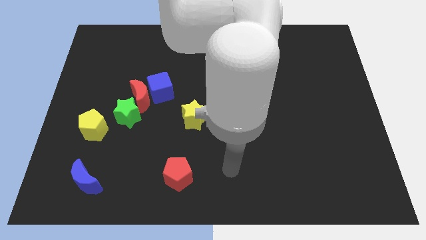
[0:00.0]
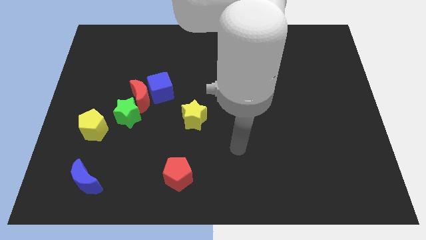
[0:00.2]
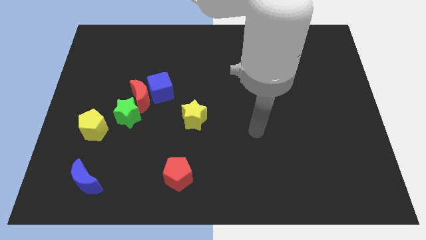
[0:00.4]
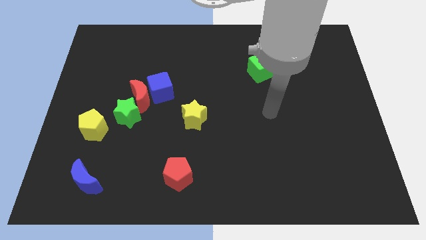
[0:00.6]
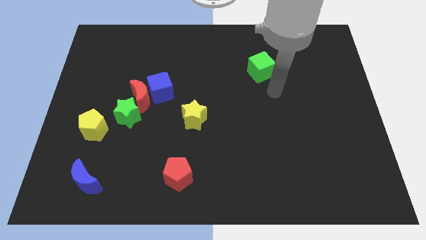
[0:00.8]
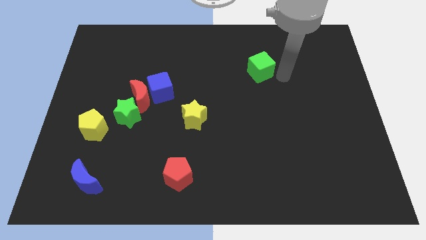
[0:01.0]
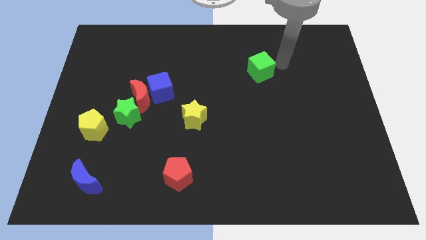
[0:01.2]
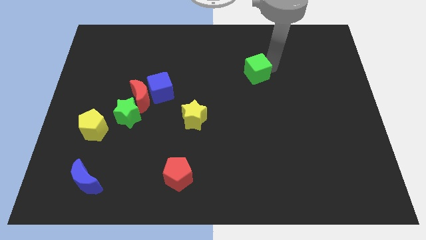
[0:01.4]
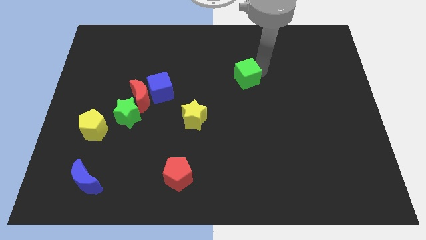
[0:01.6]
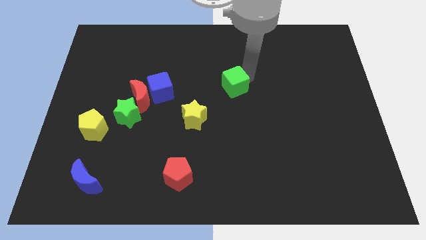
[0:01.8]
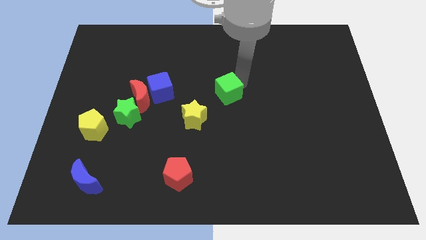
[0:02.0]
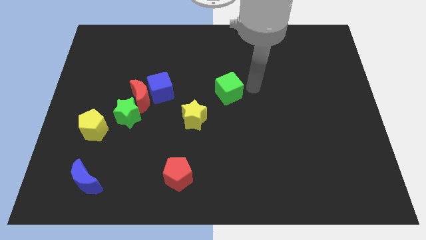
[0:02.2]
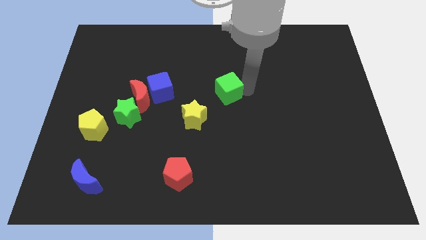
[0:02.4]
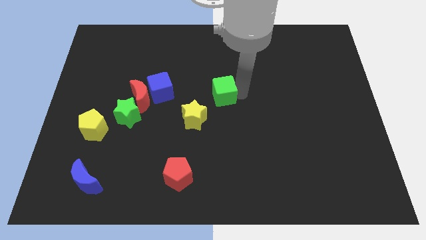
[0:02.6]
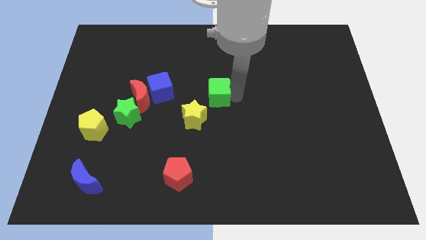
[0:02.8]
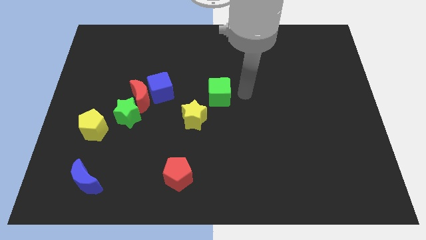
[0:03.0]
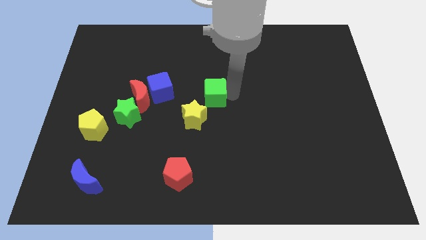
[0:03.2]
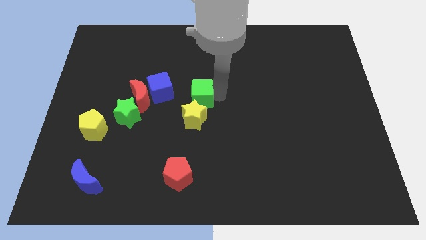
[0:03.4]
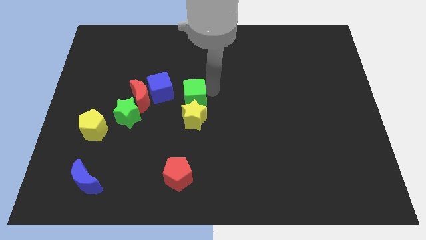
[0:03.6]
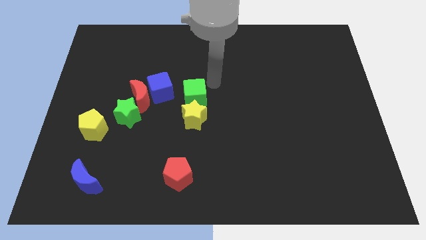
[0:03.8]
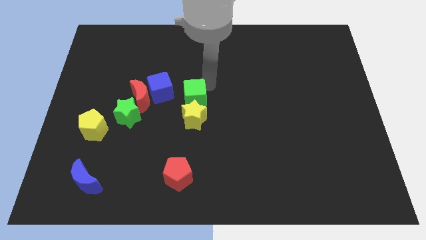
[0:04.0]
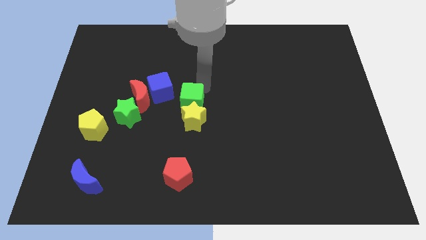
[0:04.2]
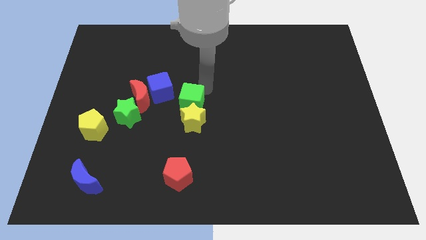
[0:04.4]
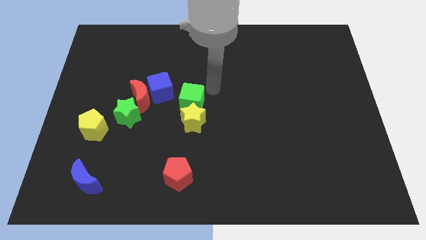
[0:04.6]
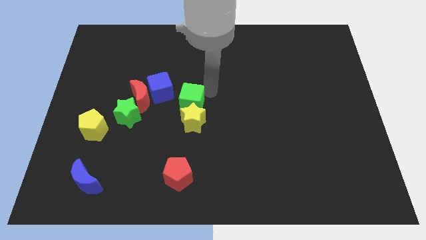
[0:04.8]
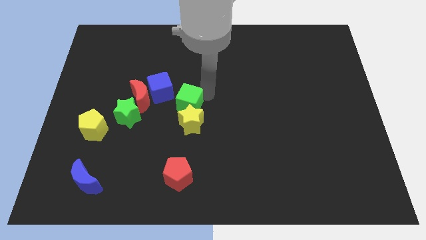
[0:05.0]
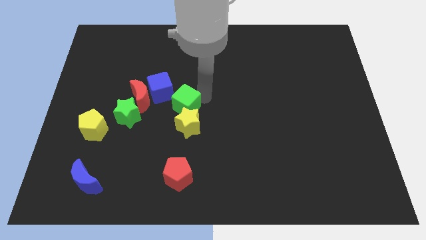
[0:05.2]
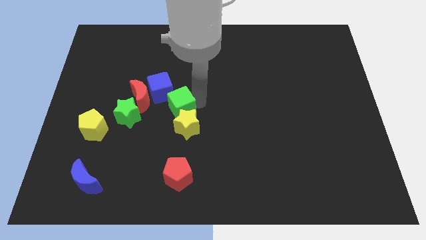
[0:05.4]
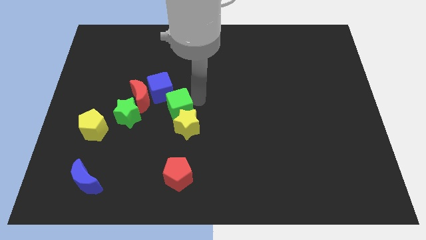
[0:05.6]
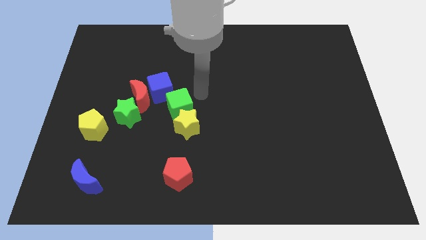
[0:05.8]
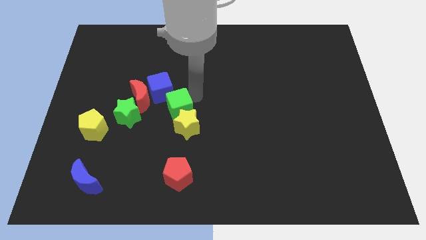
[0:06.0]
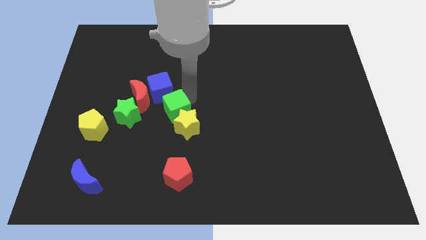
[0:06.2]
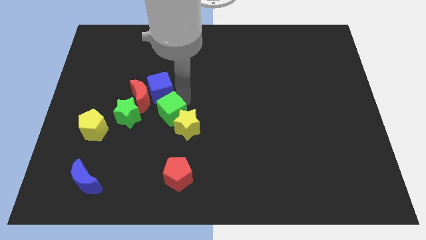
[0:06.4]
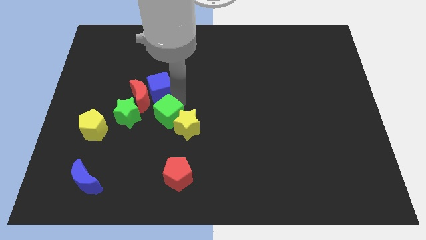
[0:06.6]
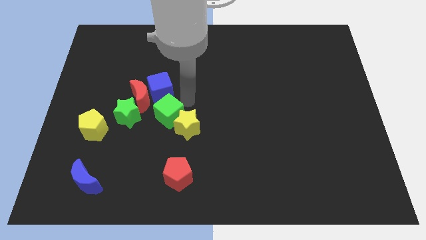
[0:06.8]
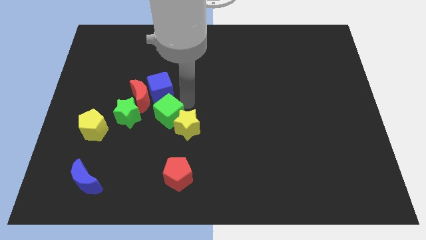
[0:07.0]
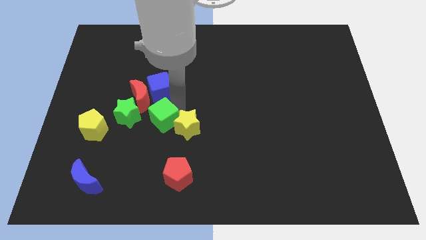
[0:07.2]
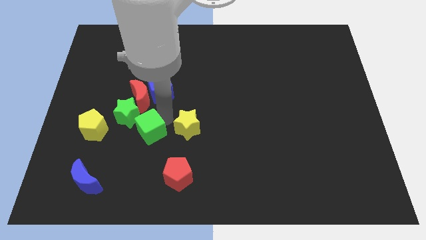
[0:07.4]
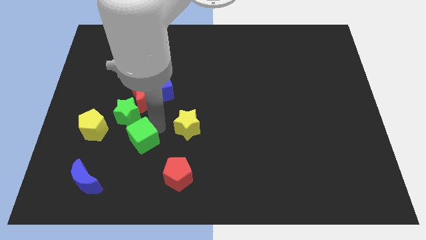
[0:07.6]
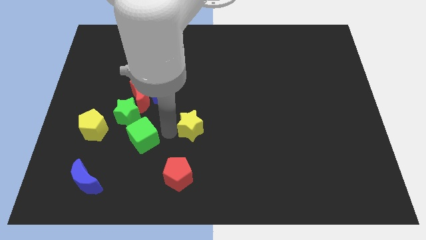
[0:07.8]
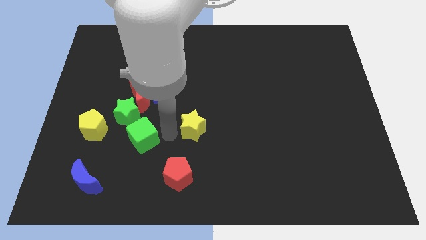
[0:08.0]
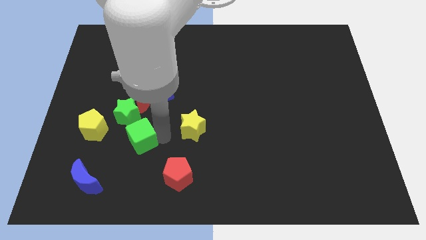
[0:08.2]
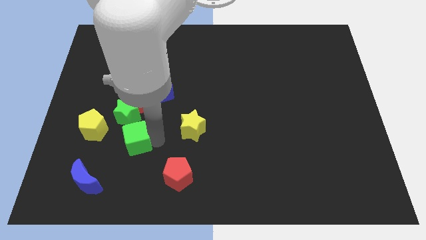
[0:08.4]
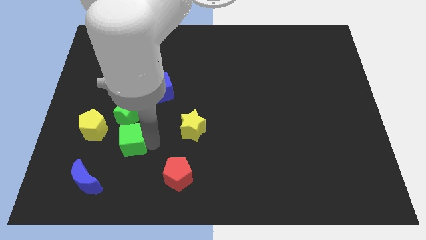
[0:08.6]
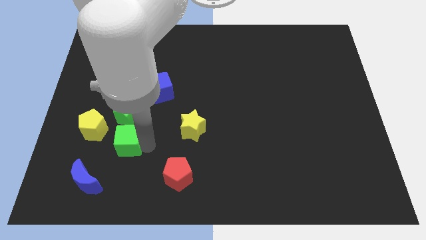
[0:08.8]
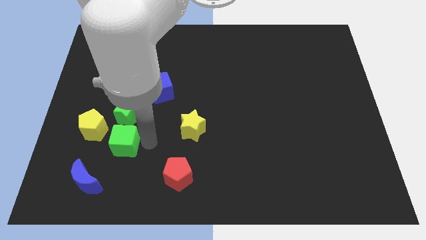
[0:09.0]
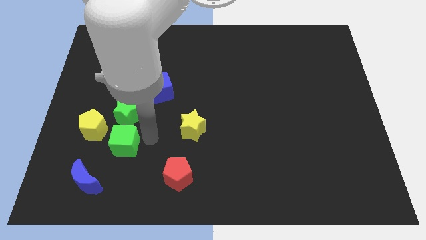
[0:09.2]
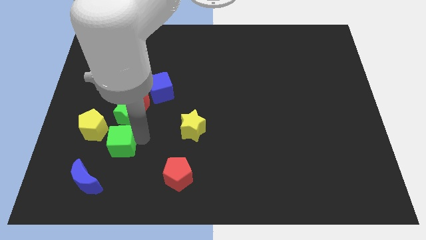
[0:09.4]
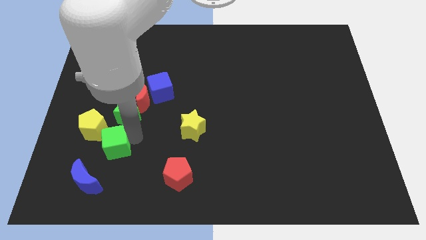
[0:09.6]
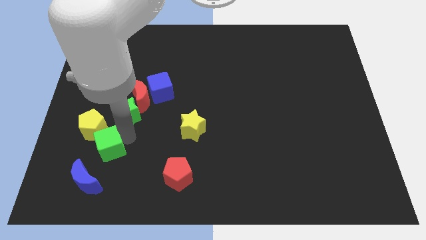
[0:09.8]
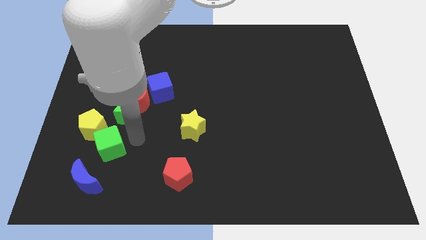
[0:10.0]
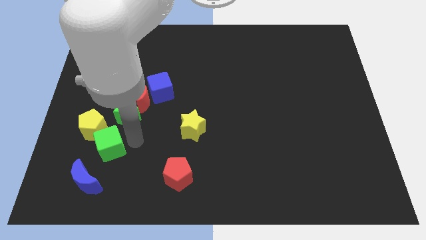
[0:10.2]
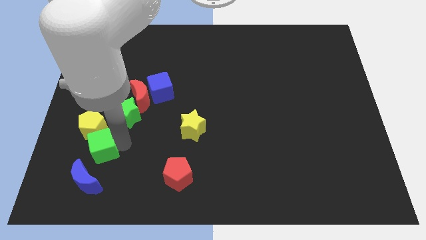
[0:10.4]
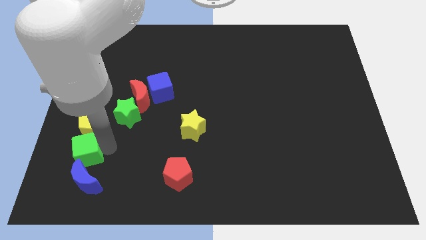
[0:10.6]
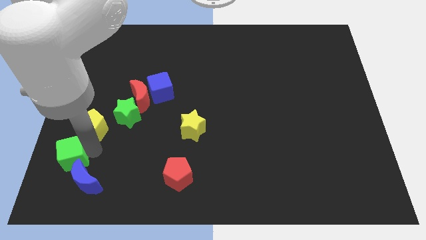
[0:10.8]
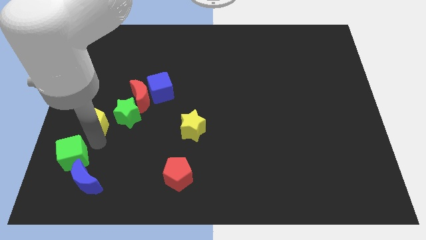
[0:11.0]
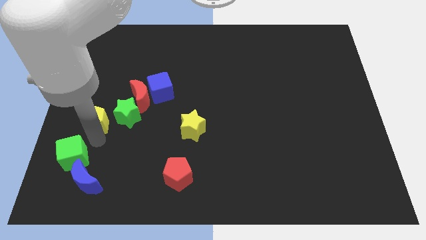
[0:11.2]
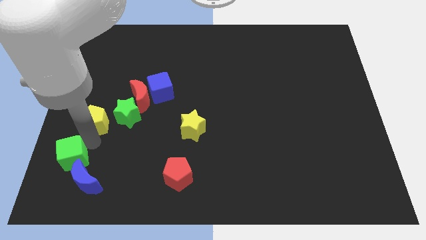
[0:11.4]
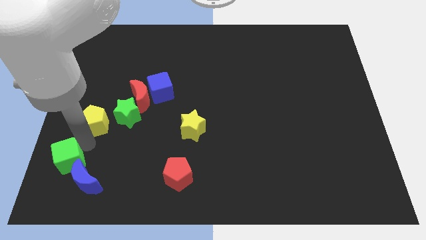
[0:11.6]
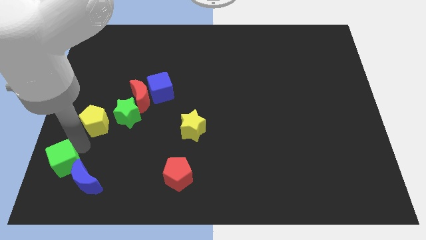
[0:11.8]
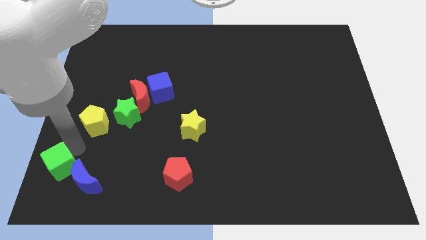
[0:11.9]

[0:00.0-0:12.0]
slide the green cube to the lower left corner
